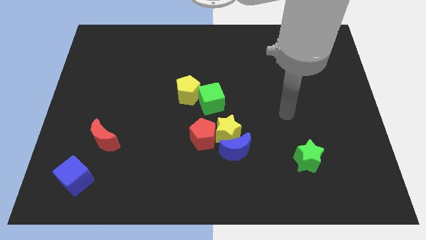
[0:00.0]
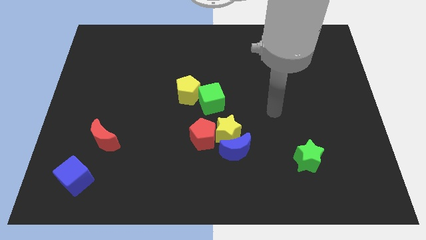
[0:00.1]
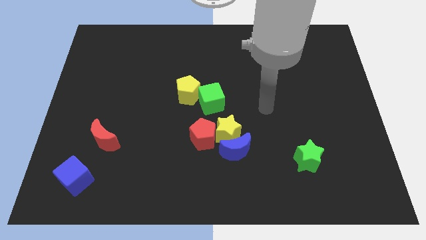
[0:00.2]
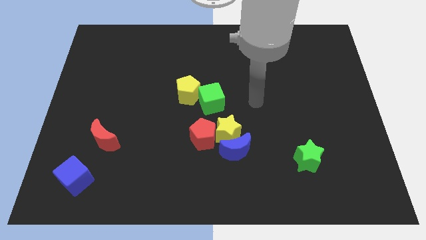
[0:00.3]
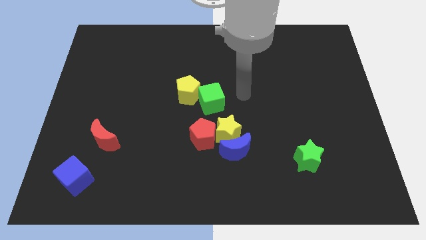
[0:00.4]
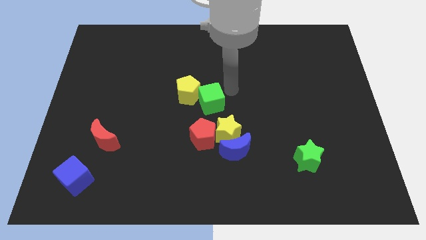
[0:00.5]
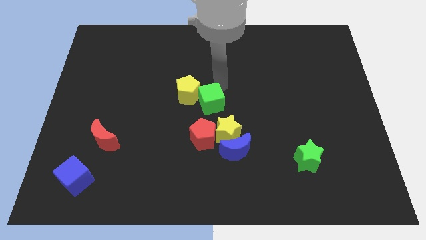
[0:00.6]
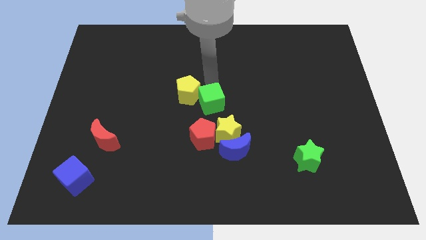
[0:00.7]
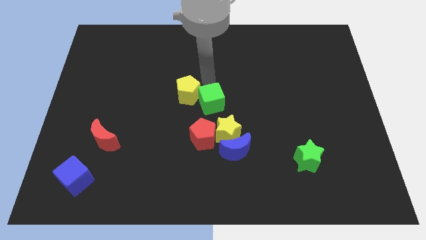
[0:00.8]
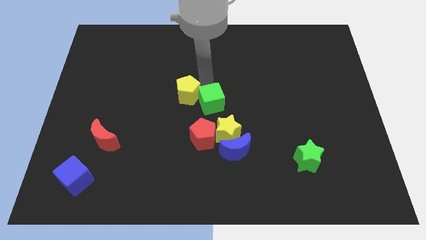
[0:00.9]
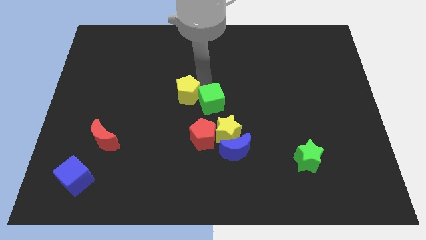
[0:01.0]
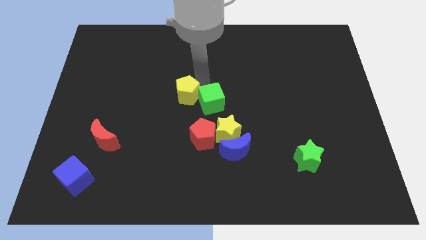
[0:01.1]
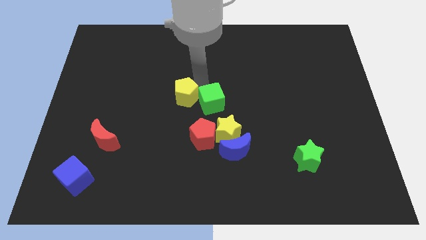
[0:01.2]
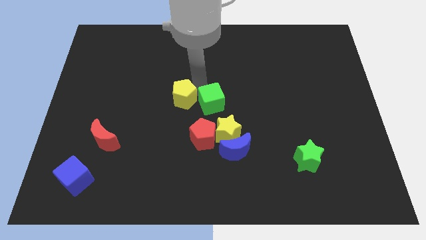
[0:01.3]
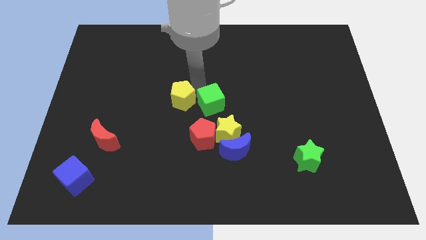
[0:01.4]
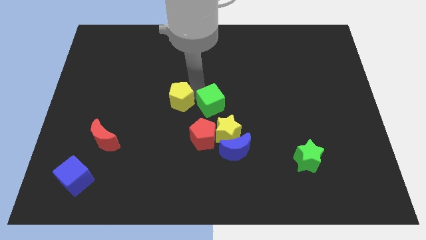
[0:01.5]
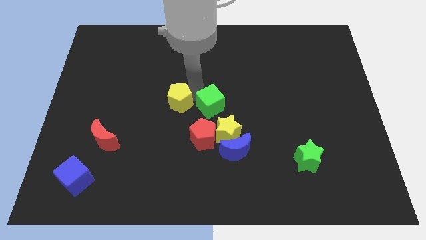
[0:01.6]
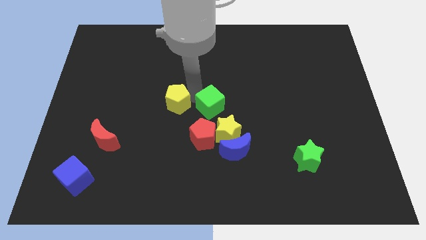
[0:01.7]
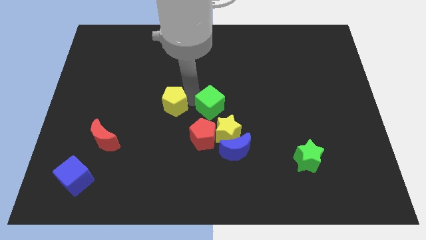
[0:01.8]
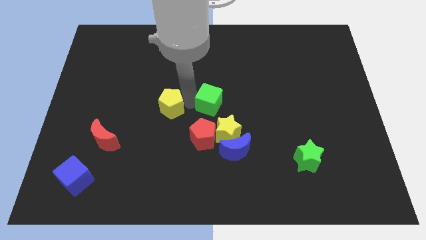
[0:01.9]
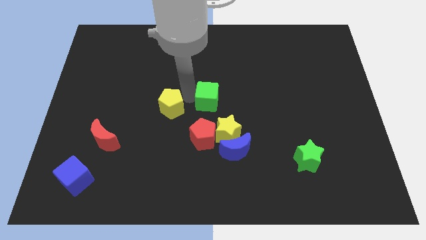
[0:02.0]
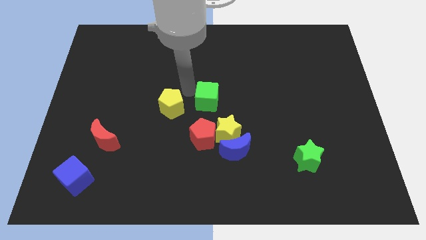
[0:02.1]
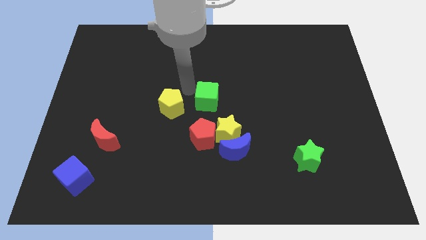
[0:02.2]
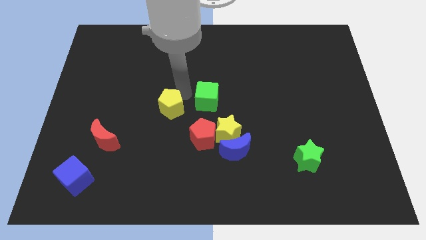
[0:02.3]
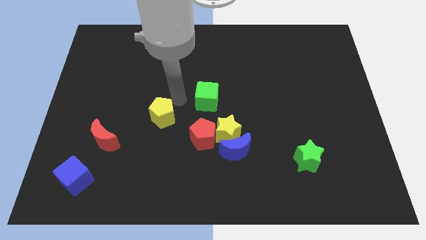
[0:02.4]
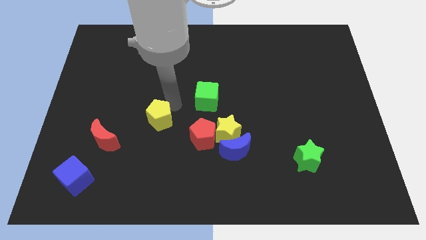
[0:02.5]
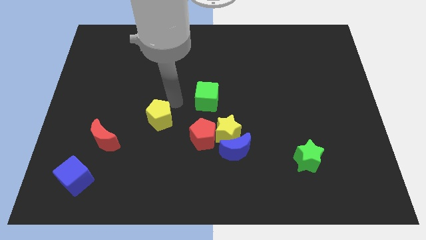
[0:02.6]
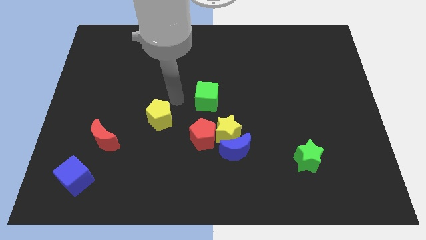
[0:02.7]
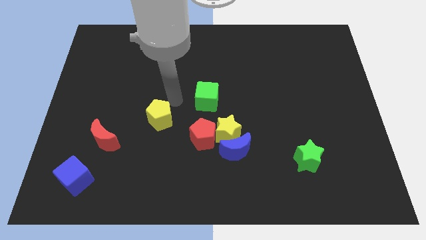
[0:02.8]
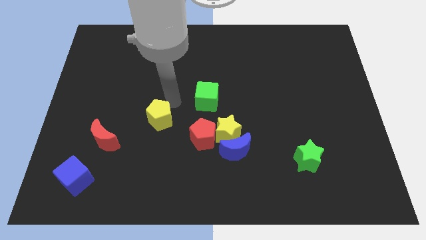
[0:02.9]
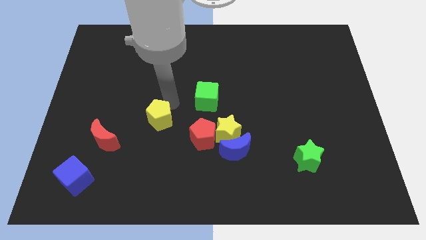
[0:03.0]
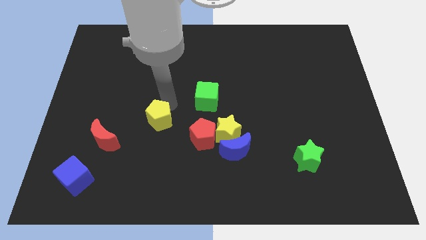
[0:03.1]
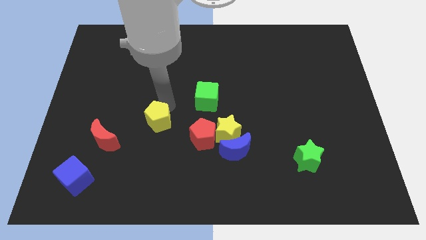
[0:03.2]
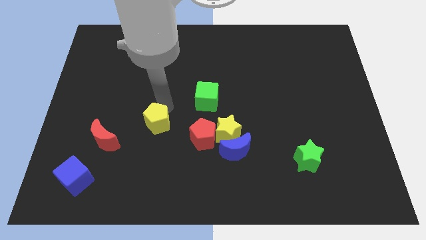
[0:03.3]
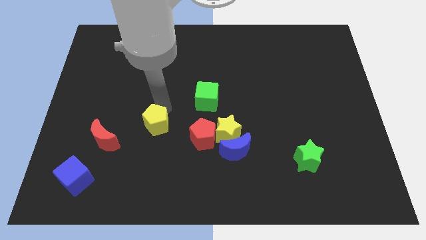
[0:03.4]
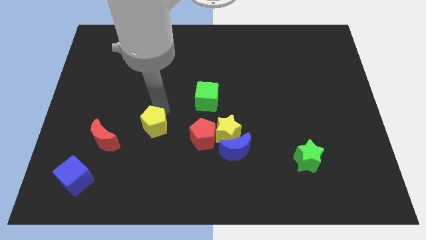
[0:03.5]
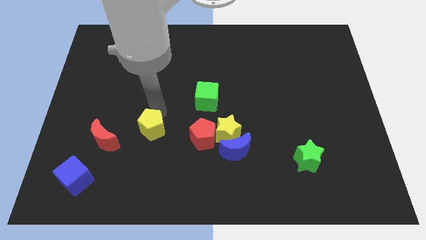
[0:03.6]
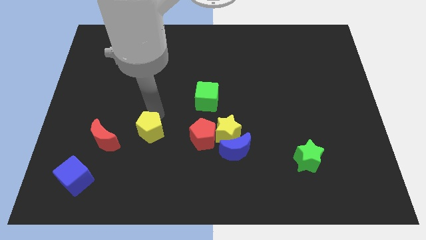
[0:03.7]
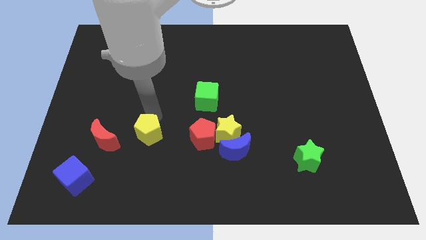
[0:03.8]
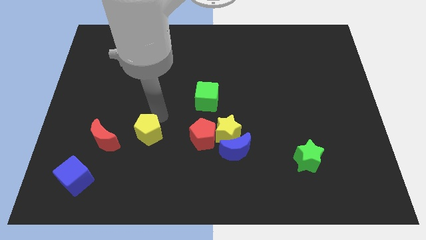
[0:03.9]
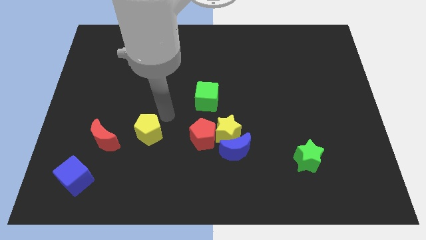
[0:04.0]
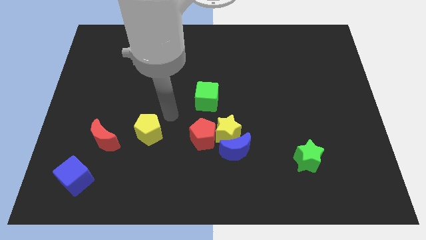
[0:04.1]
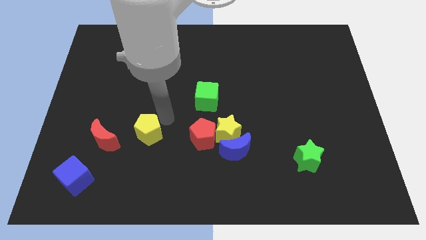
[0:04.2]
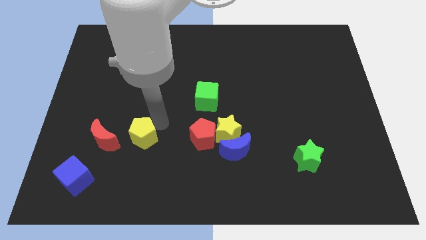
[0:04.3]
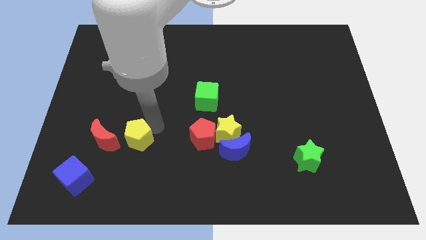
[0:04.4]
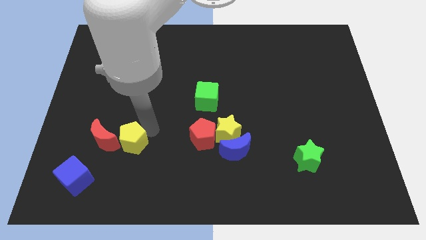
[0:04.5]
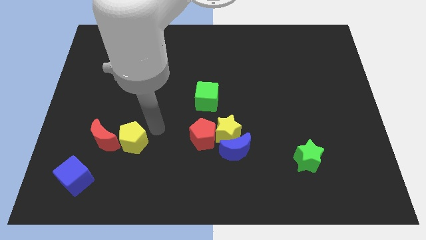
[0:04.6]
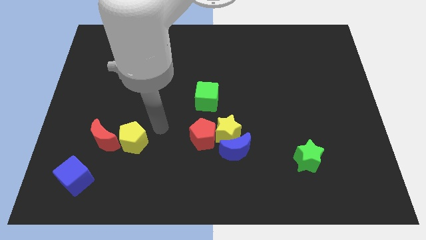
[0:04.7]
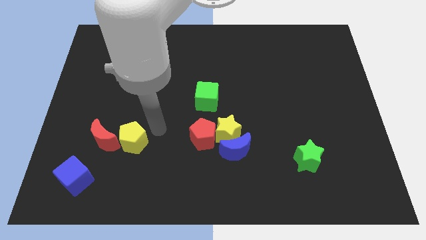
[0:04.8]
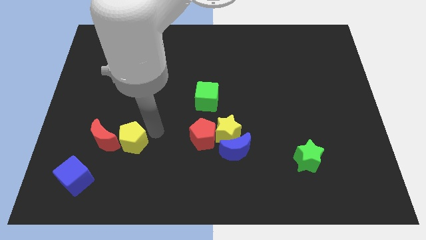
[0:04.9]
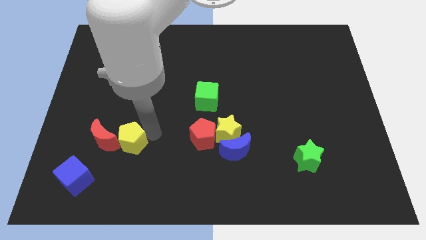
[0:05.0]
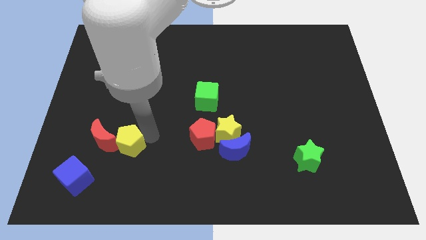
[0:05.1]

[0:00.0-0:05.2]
slide the yellow pentagon to the top right of the blue cube

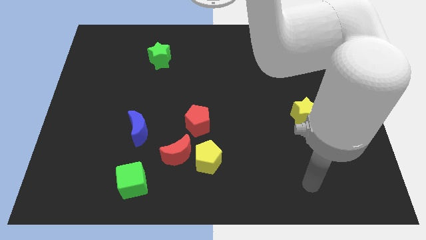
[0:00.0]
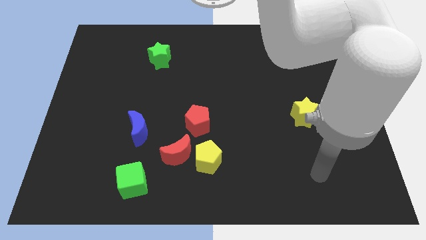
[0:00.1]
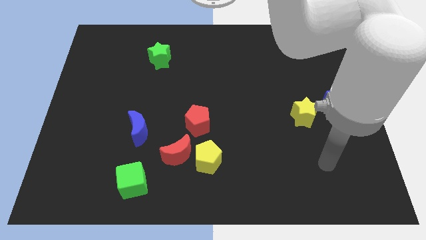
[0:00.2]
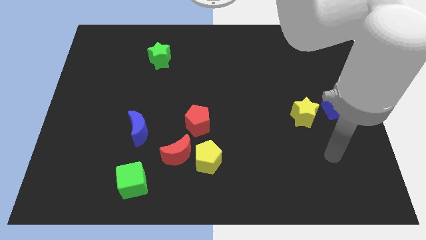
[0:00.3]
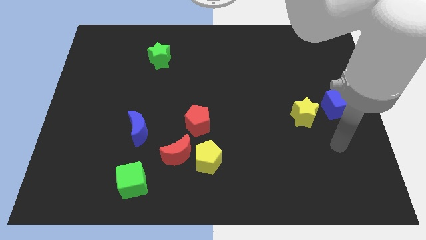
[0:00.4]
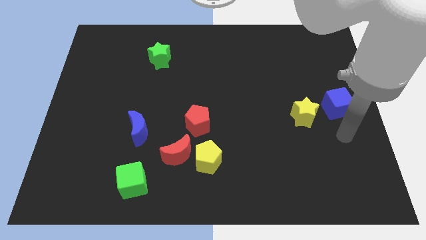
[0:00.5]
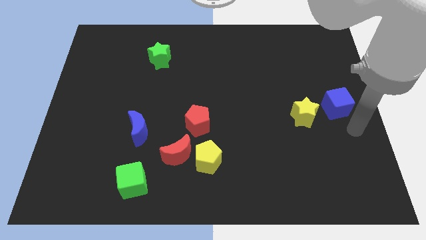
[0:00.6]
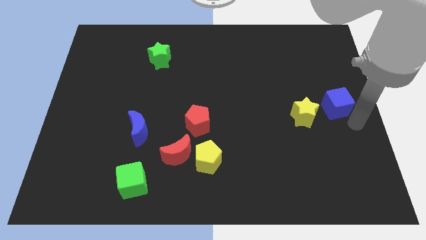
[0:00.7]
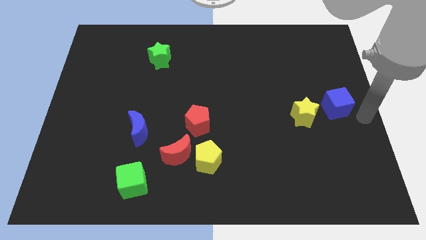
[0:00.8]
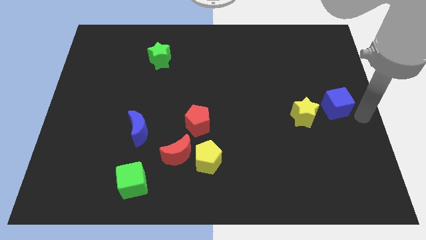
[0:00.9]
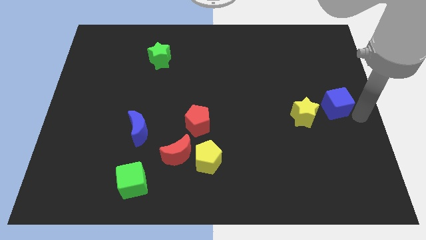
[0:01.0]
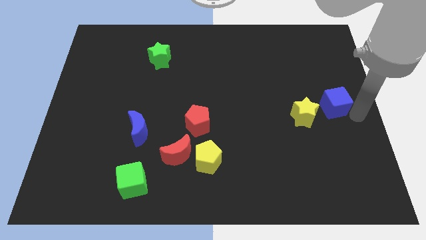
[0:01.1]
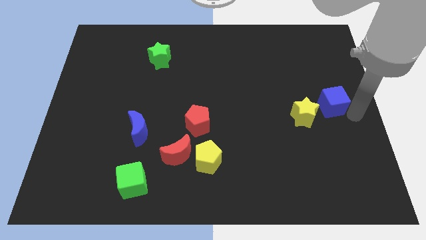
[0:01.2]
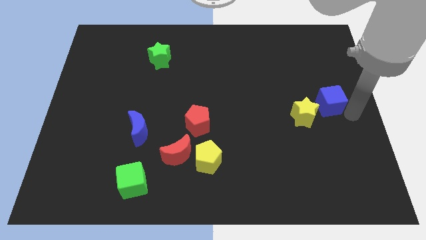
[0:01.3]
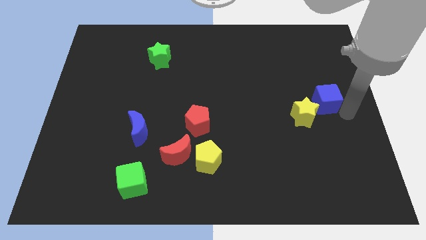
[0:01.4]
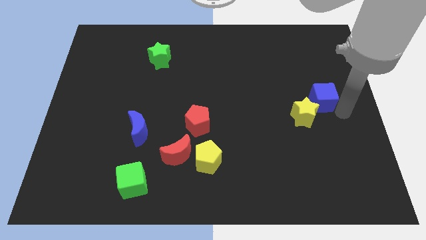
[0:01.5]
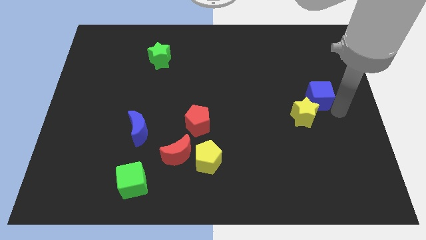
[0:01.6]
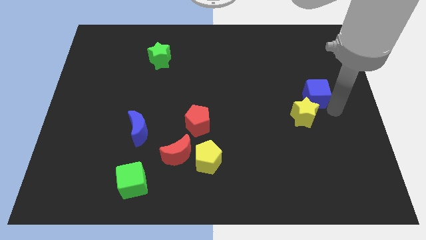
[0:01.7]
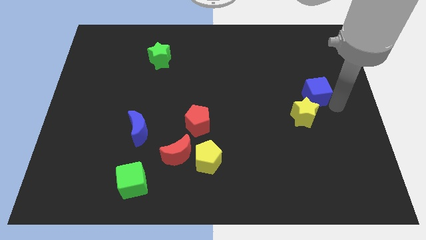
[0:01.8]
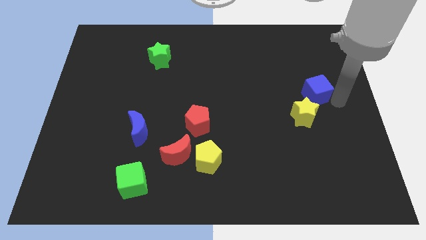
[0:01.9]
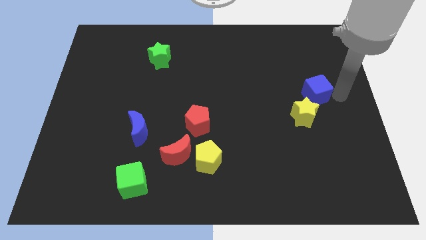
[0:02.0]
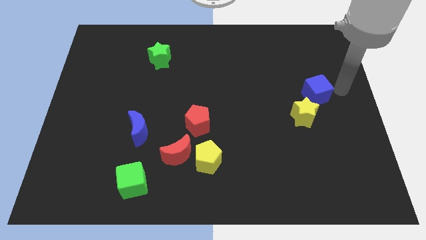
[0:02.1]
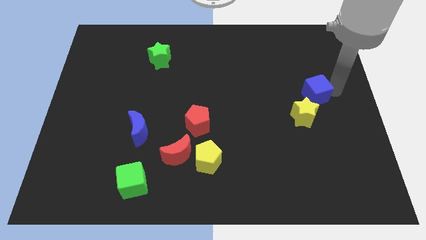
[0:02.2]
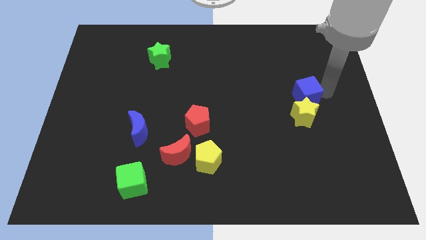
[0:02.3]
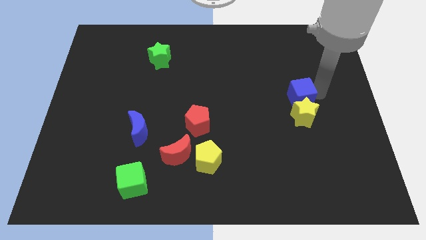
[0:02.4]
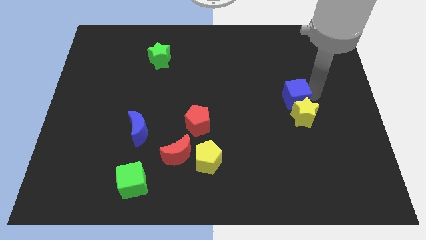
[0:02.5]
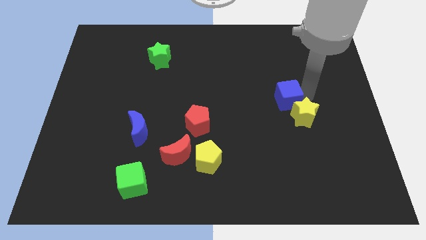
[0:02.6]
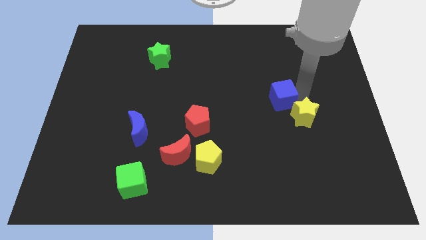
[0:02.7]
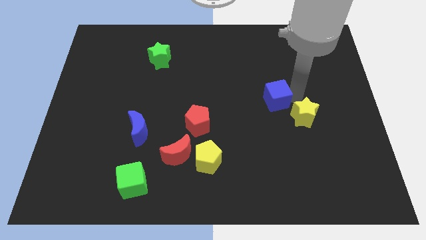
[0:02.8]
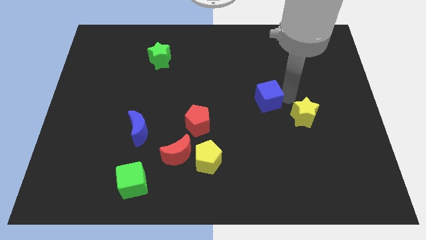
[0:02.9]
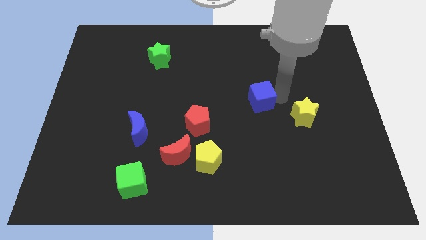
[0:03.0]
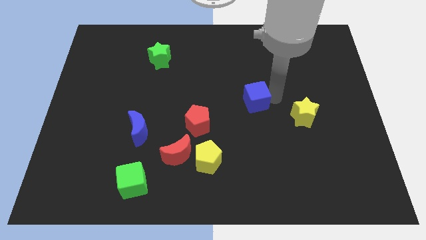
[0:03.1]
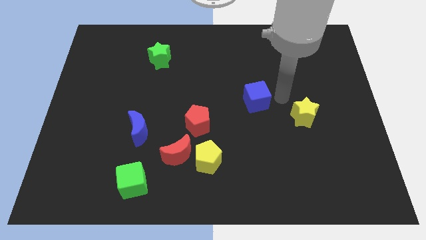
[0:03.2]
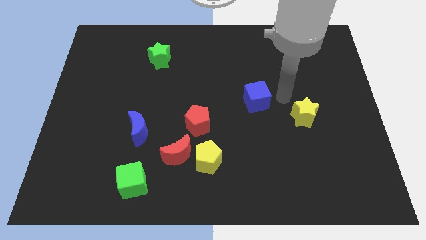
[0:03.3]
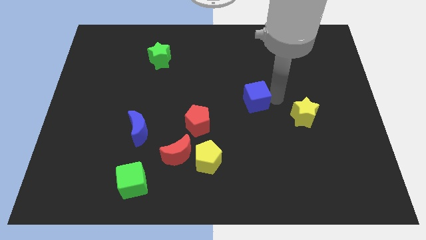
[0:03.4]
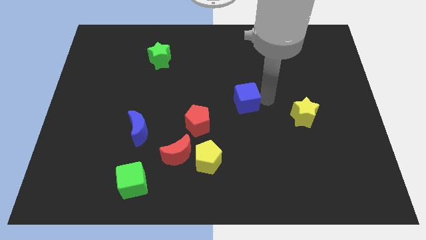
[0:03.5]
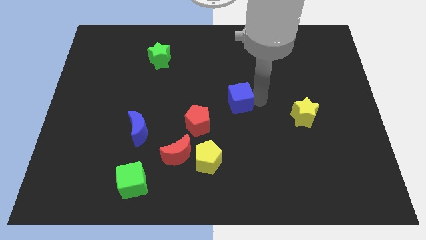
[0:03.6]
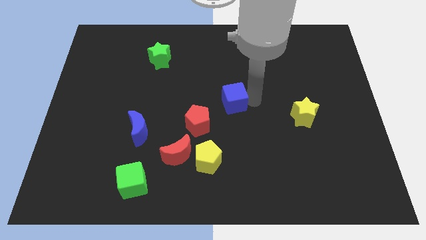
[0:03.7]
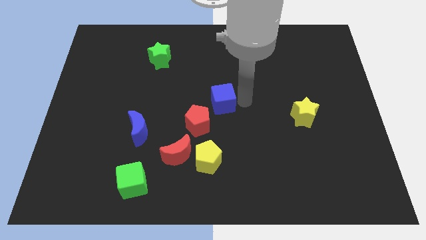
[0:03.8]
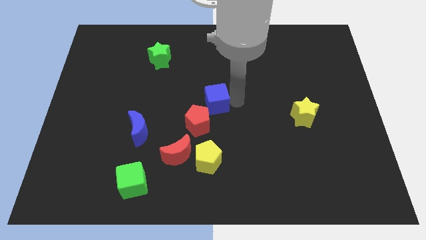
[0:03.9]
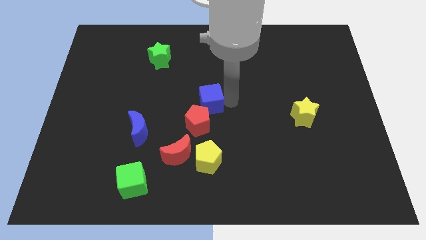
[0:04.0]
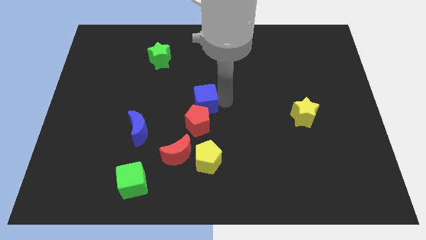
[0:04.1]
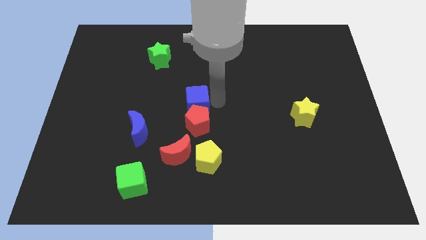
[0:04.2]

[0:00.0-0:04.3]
move the blue cube diagonally up and to the left of the red pentagon
